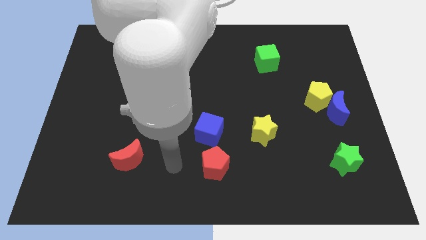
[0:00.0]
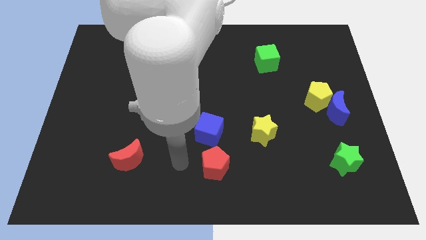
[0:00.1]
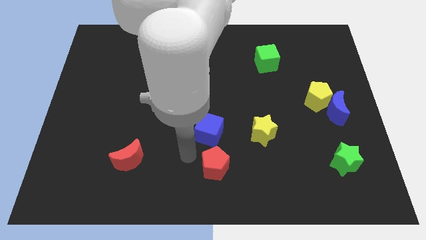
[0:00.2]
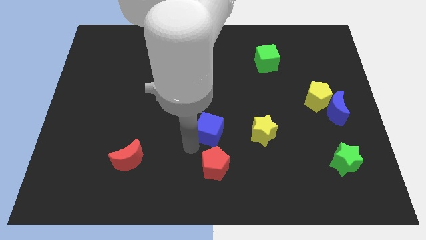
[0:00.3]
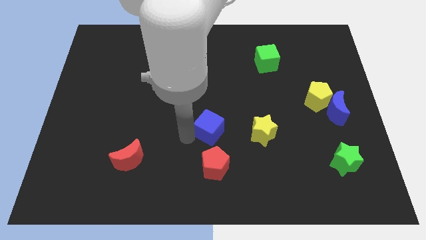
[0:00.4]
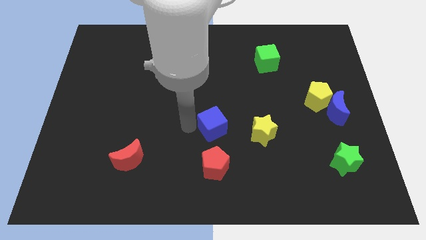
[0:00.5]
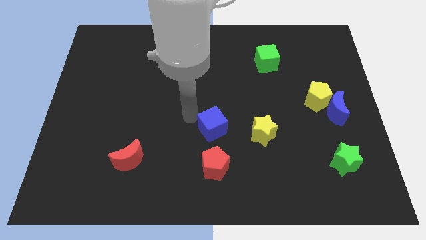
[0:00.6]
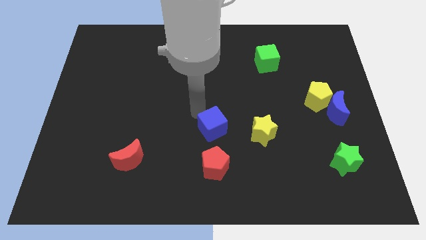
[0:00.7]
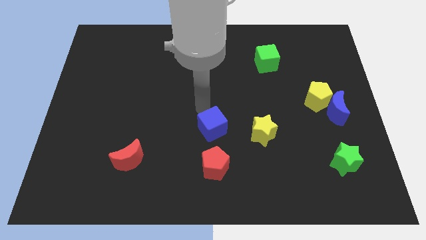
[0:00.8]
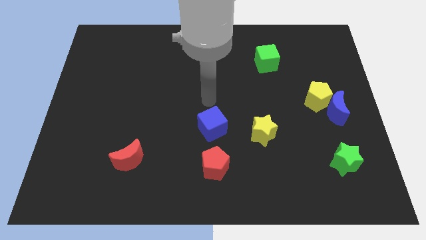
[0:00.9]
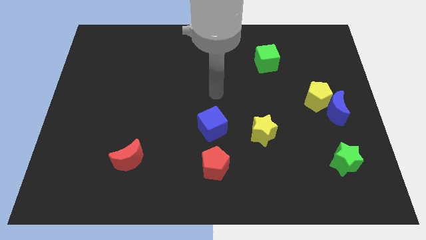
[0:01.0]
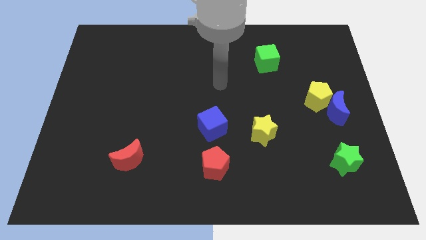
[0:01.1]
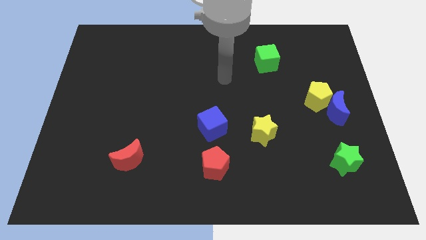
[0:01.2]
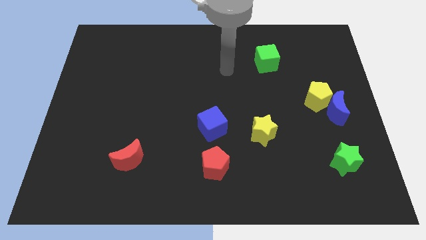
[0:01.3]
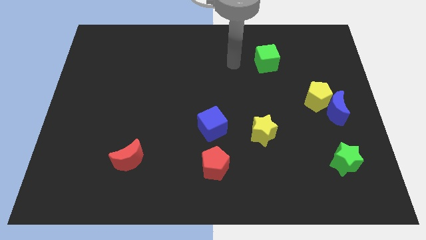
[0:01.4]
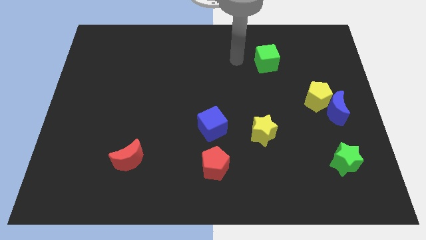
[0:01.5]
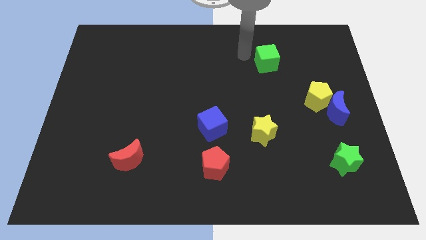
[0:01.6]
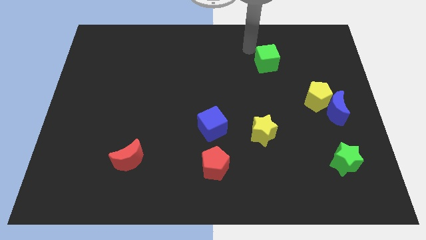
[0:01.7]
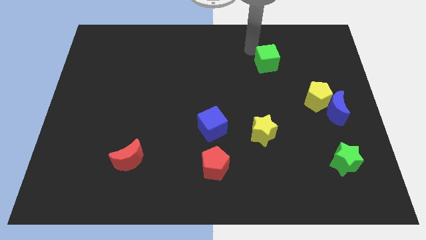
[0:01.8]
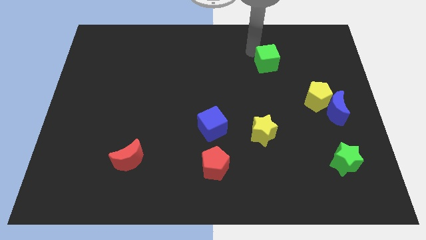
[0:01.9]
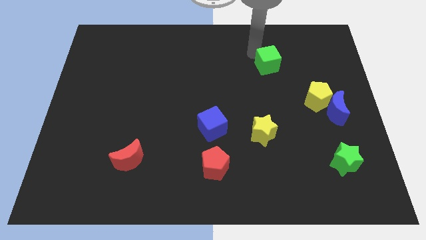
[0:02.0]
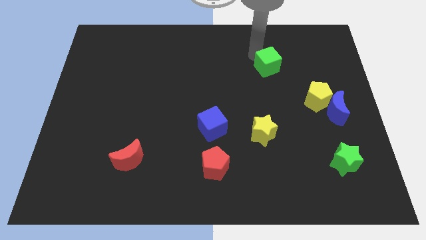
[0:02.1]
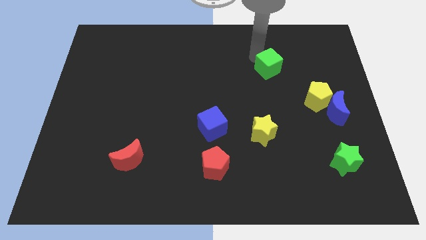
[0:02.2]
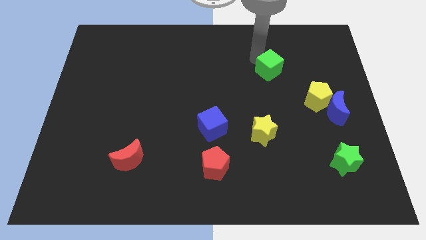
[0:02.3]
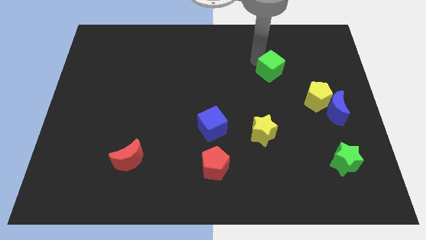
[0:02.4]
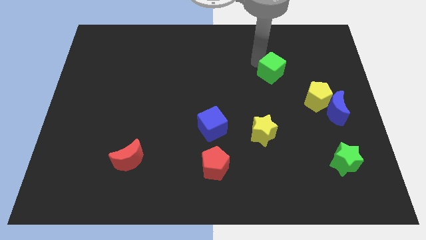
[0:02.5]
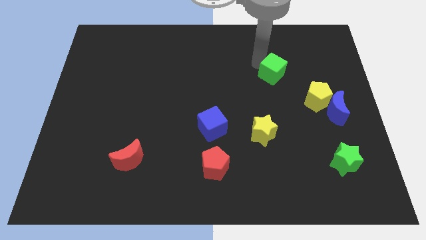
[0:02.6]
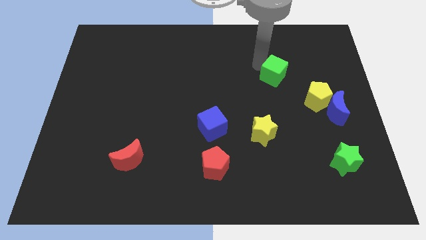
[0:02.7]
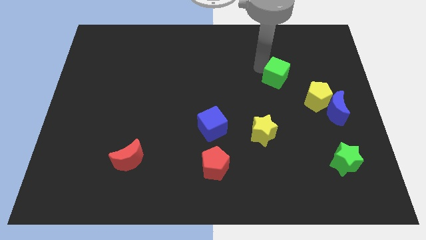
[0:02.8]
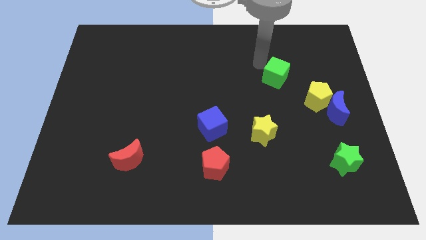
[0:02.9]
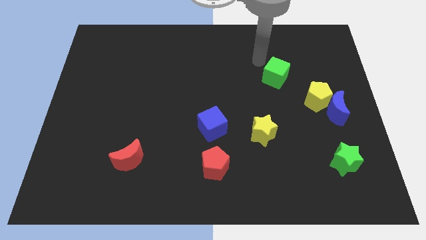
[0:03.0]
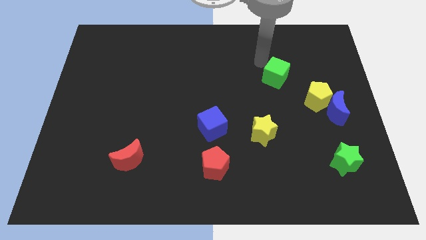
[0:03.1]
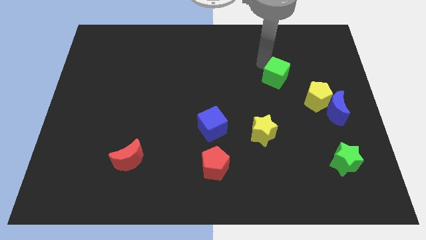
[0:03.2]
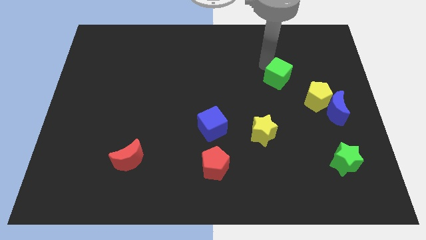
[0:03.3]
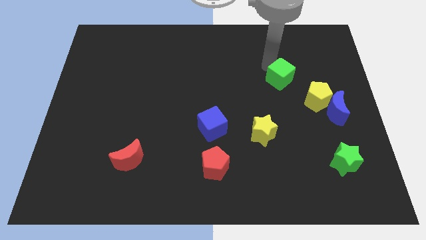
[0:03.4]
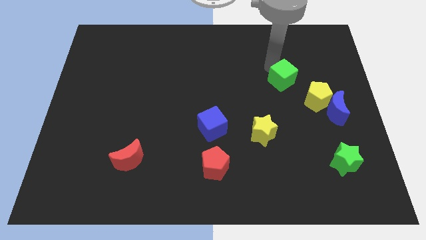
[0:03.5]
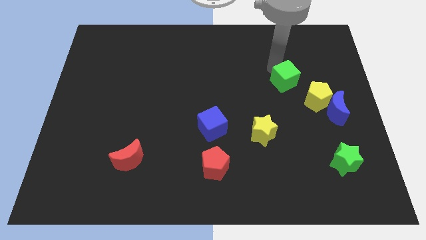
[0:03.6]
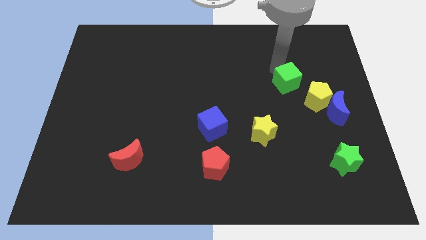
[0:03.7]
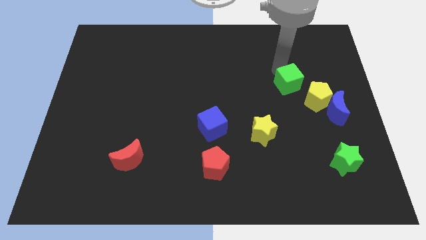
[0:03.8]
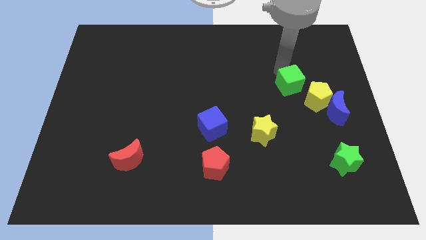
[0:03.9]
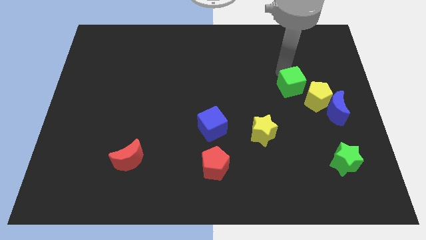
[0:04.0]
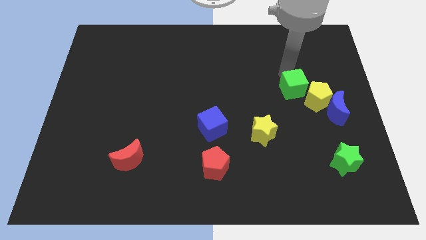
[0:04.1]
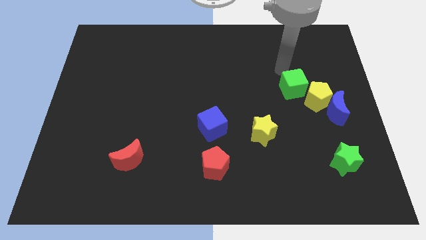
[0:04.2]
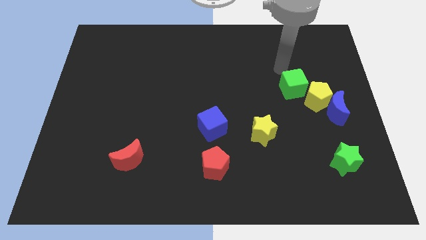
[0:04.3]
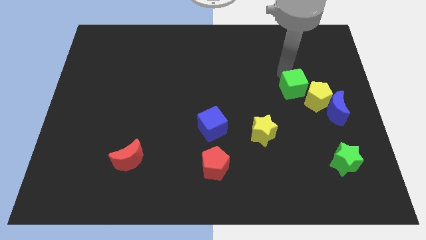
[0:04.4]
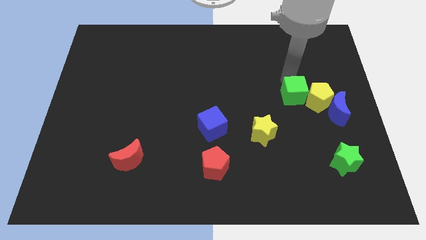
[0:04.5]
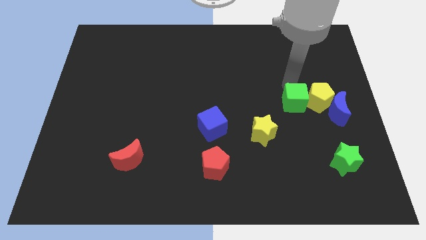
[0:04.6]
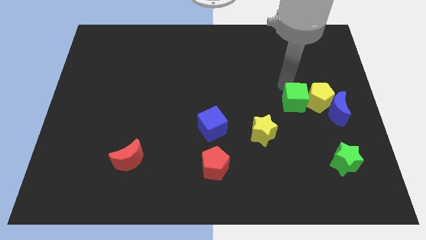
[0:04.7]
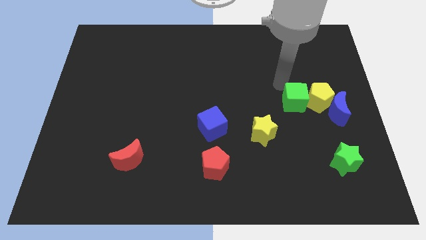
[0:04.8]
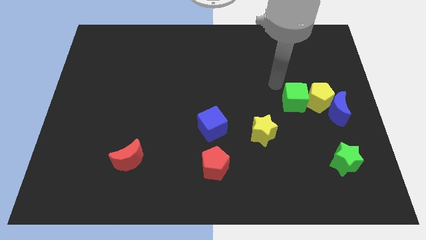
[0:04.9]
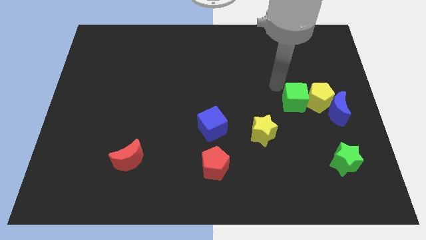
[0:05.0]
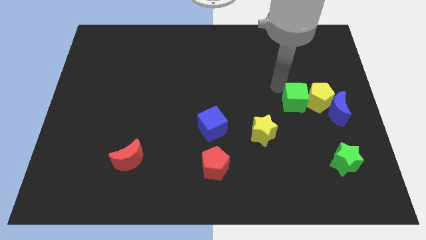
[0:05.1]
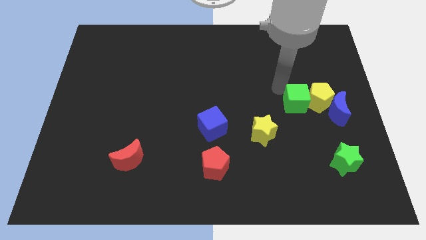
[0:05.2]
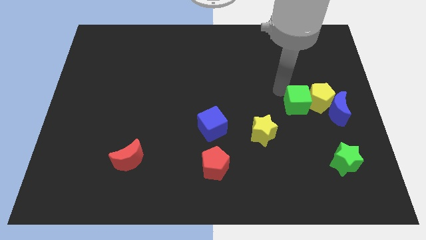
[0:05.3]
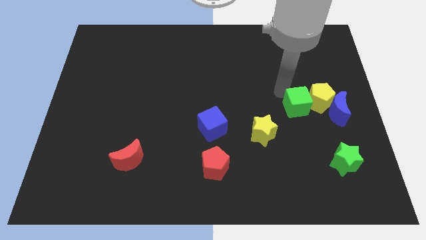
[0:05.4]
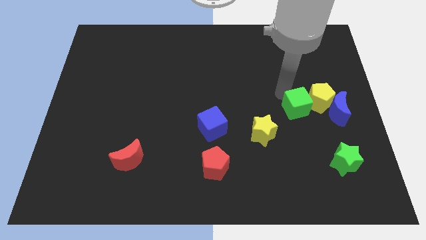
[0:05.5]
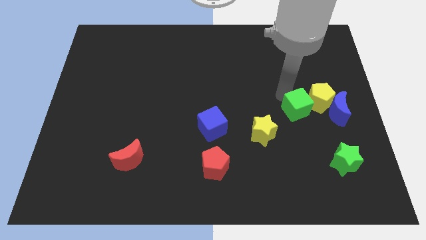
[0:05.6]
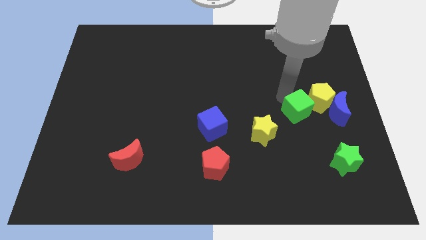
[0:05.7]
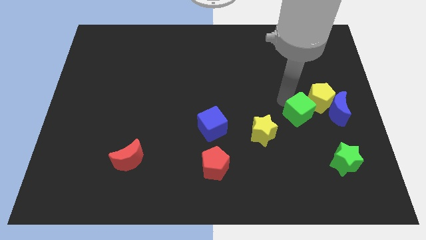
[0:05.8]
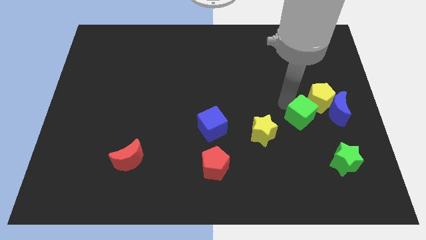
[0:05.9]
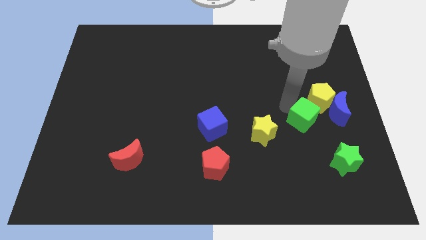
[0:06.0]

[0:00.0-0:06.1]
push the green cube to the bottom side of the yellow pentagon
